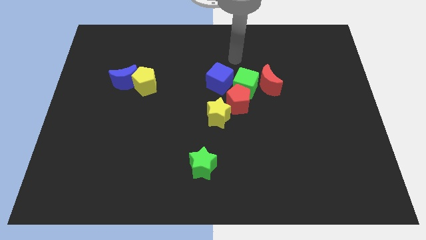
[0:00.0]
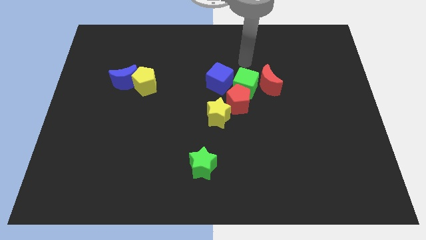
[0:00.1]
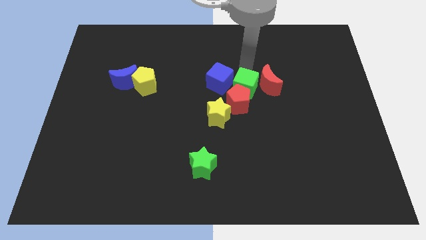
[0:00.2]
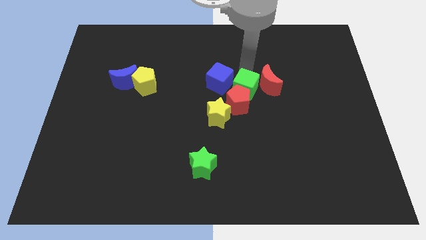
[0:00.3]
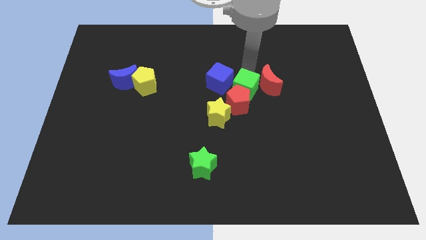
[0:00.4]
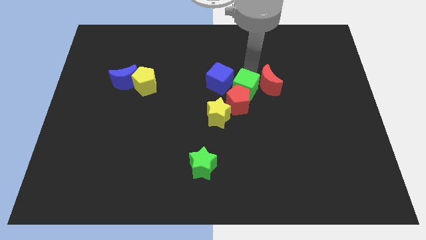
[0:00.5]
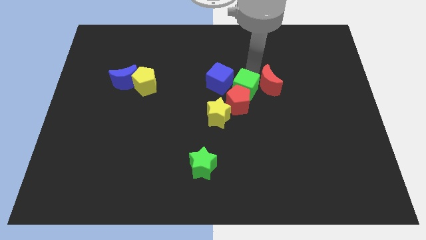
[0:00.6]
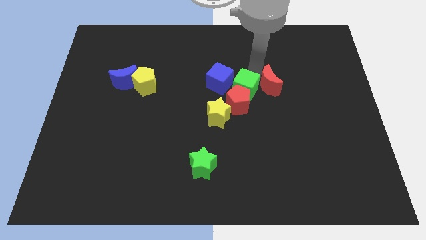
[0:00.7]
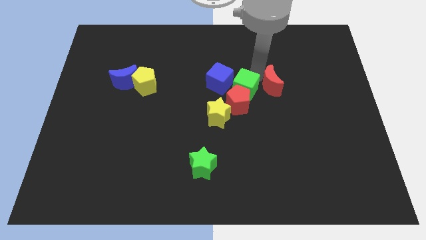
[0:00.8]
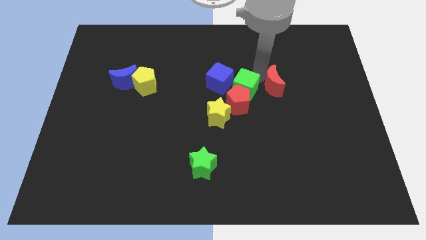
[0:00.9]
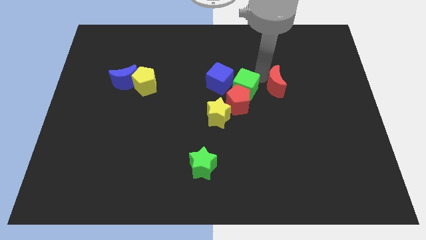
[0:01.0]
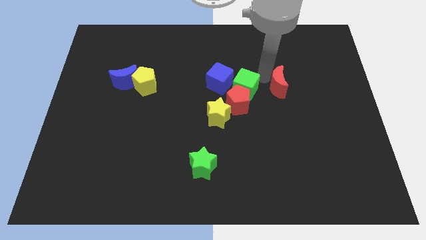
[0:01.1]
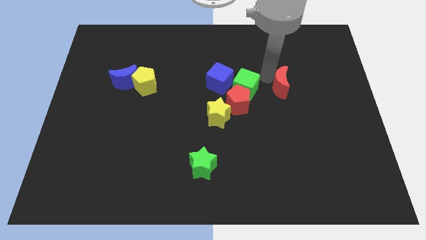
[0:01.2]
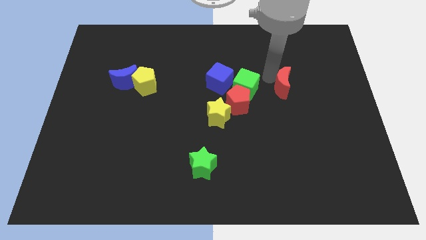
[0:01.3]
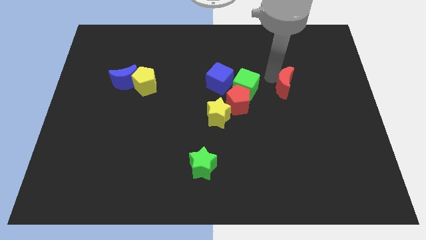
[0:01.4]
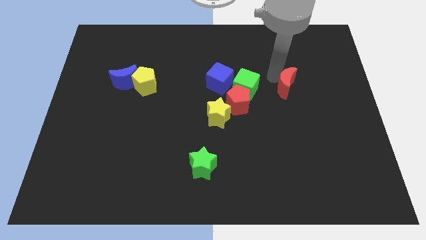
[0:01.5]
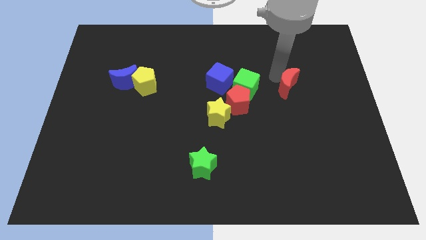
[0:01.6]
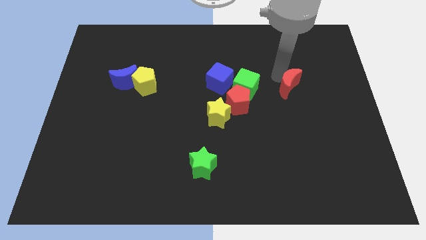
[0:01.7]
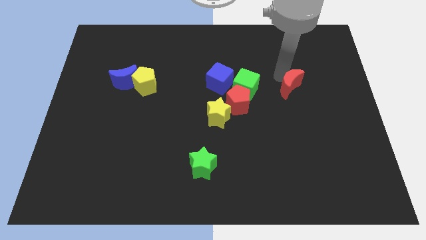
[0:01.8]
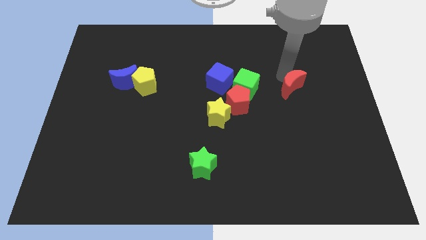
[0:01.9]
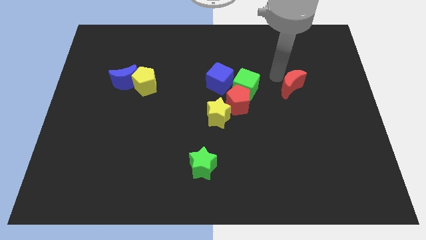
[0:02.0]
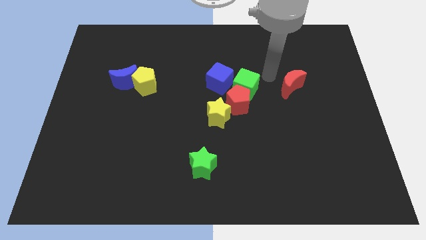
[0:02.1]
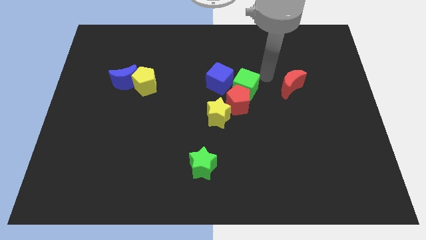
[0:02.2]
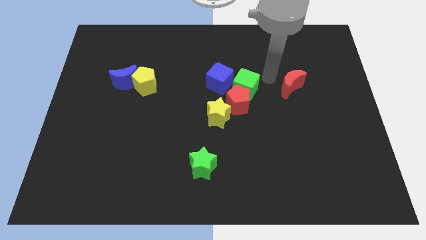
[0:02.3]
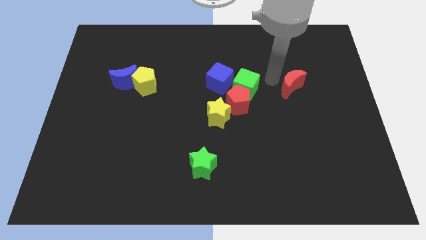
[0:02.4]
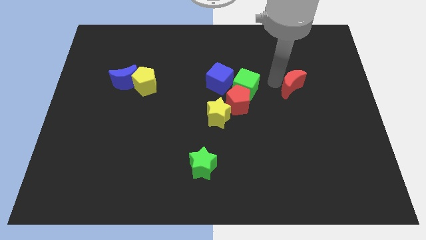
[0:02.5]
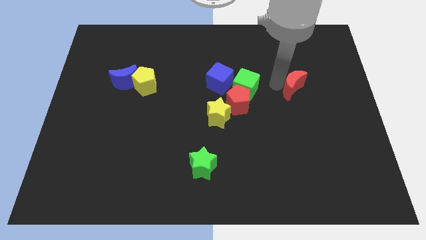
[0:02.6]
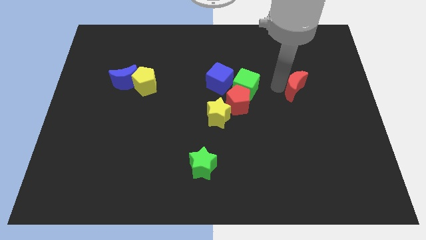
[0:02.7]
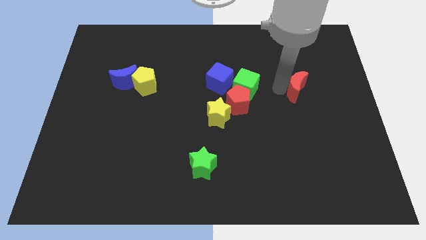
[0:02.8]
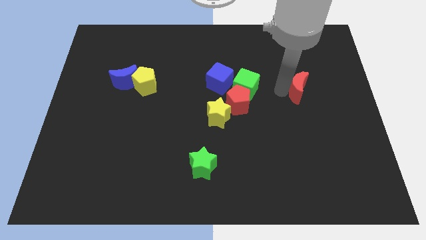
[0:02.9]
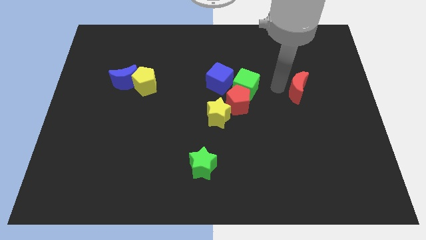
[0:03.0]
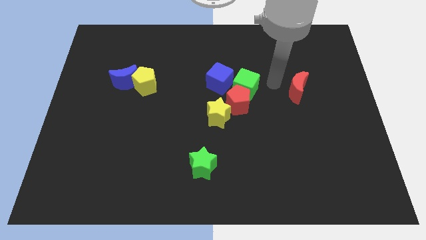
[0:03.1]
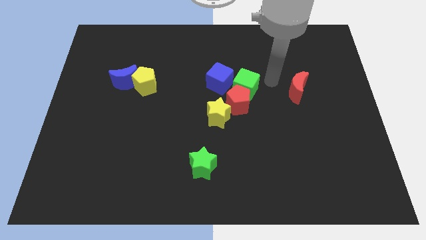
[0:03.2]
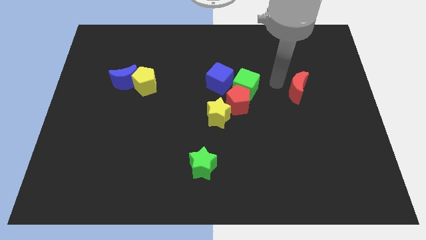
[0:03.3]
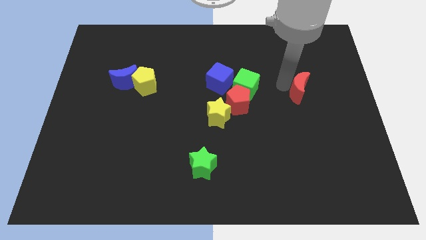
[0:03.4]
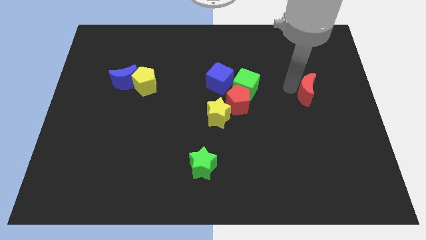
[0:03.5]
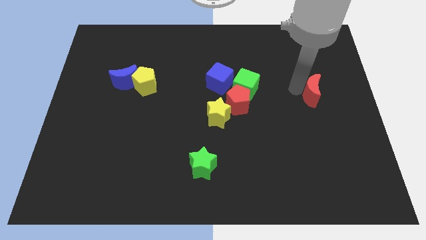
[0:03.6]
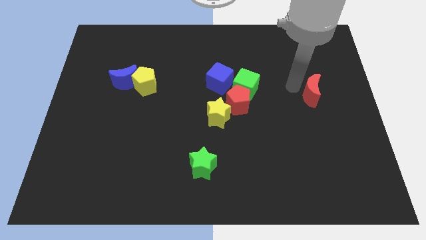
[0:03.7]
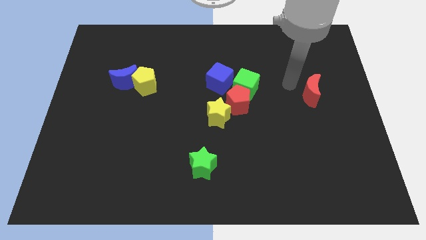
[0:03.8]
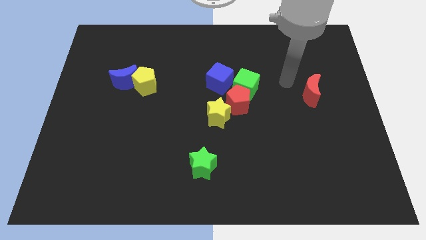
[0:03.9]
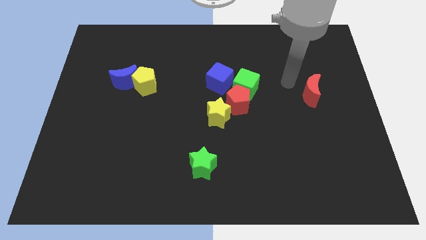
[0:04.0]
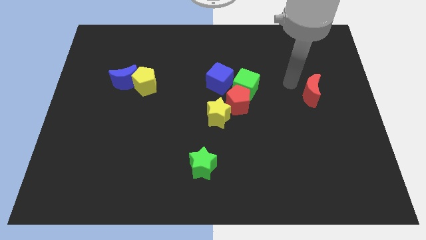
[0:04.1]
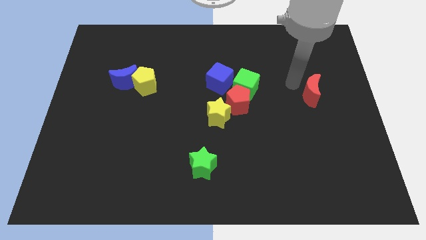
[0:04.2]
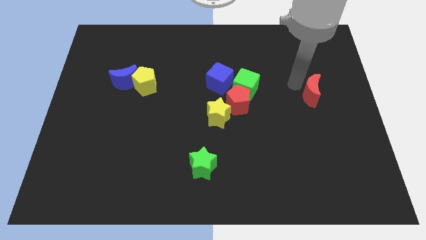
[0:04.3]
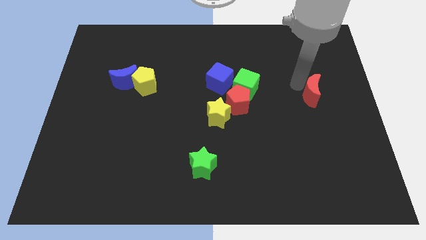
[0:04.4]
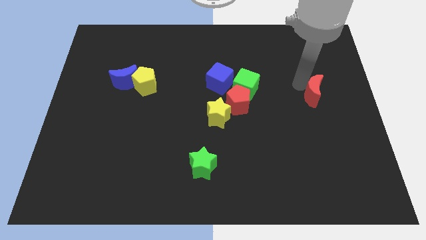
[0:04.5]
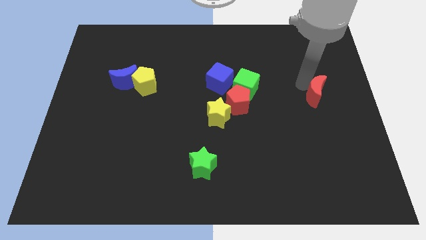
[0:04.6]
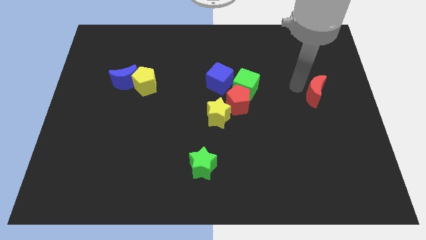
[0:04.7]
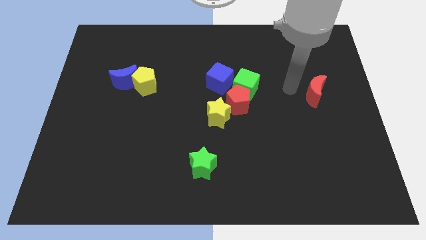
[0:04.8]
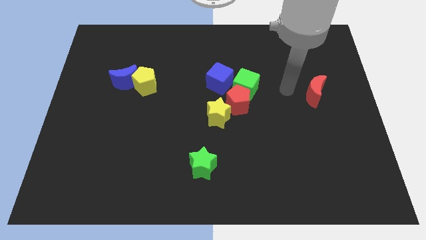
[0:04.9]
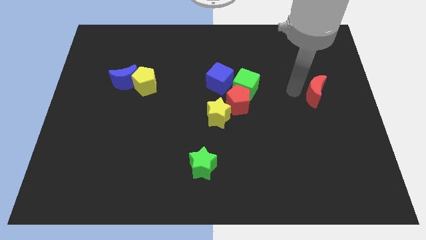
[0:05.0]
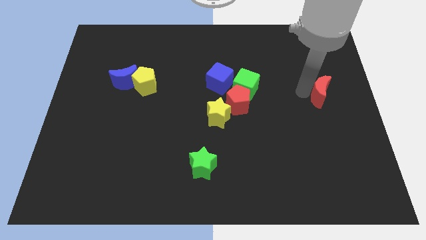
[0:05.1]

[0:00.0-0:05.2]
move the red moon to the right side of the board

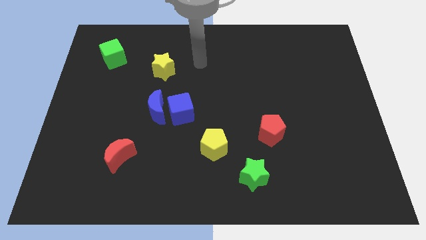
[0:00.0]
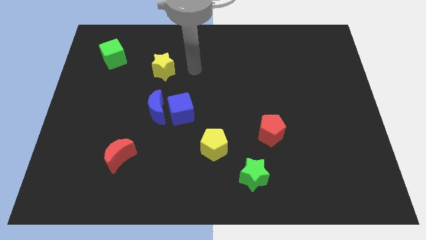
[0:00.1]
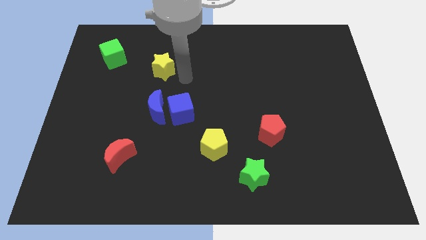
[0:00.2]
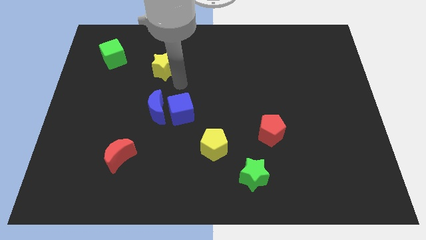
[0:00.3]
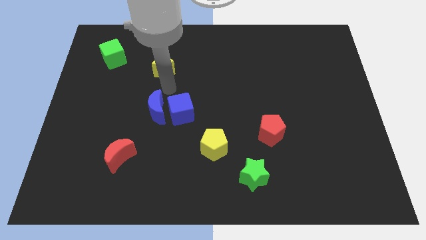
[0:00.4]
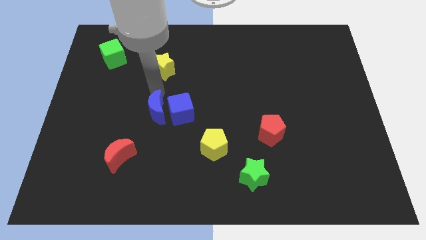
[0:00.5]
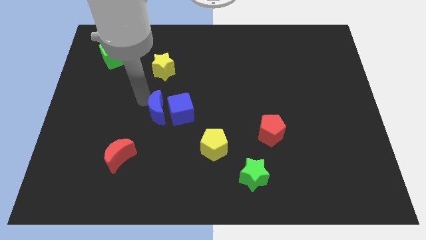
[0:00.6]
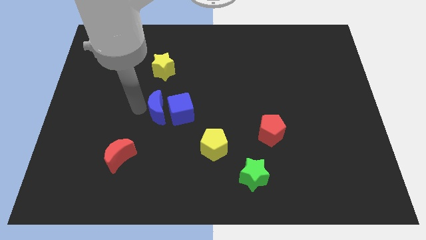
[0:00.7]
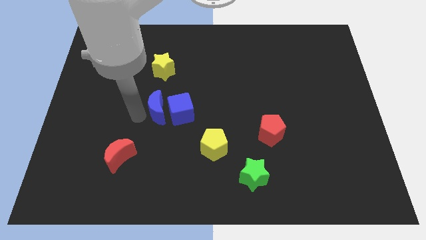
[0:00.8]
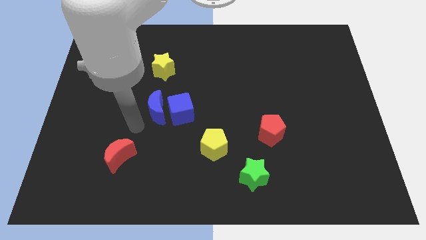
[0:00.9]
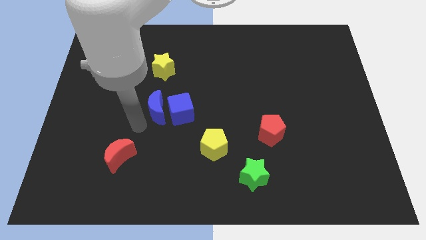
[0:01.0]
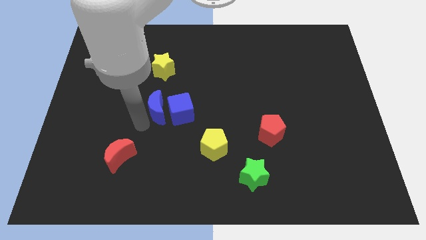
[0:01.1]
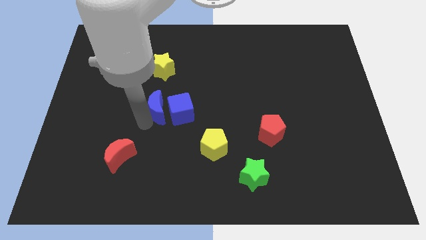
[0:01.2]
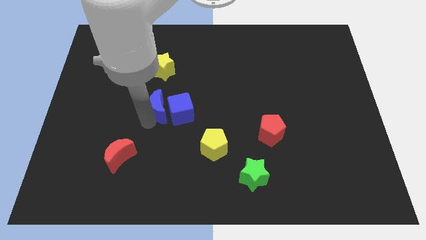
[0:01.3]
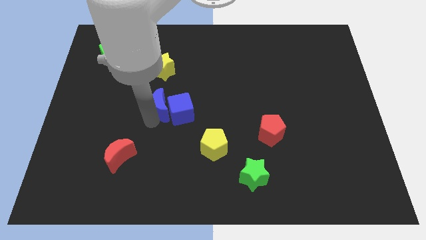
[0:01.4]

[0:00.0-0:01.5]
move the blue moon to the center of the board
